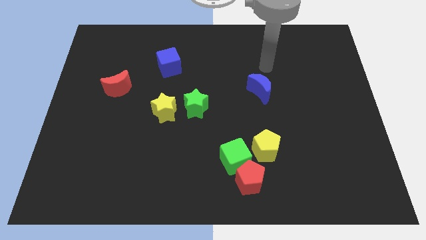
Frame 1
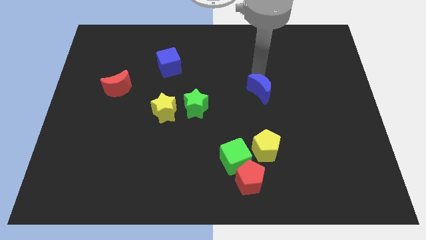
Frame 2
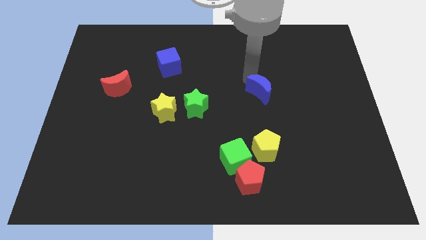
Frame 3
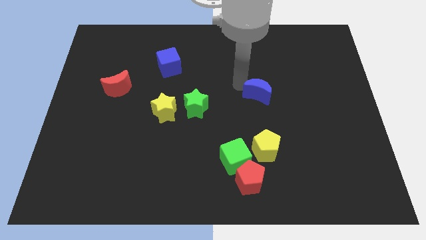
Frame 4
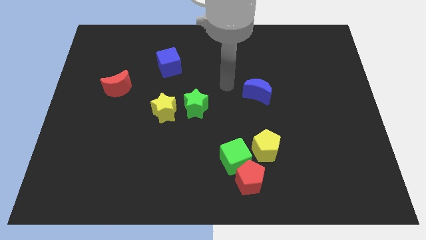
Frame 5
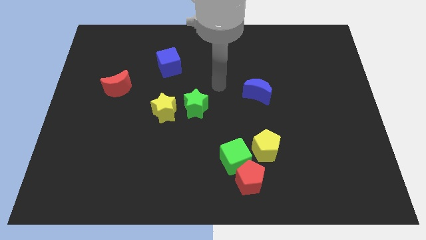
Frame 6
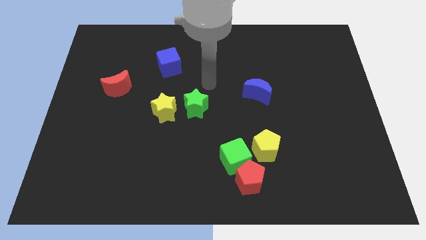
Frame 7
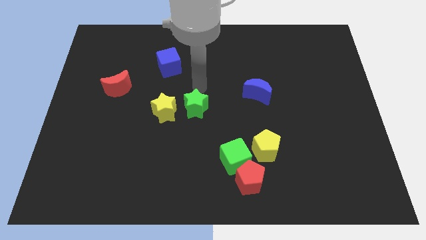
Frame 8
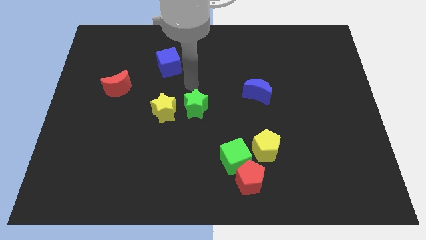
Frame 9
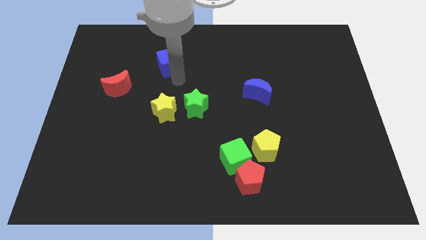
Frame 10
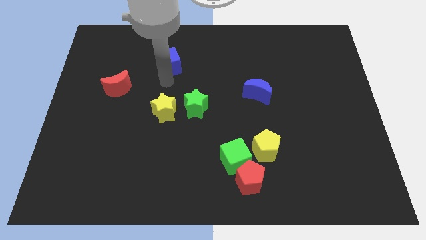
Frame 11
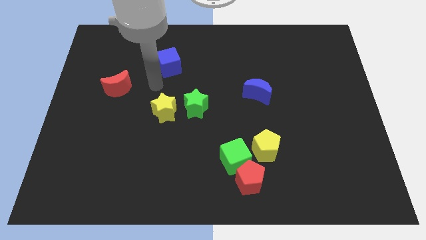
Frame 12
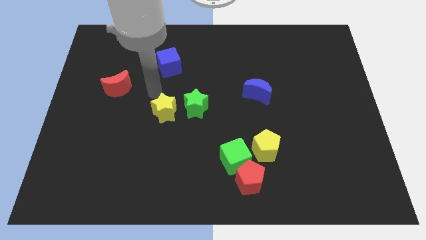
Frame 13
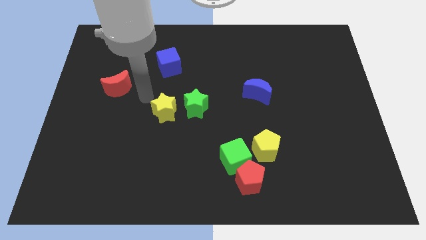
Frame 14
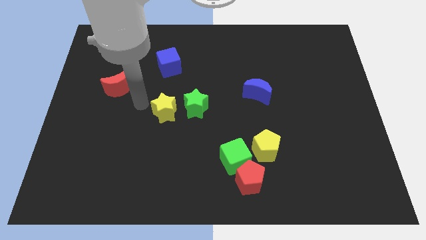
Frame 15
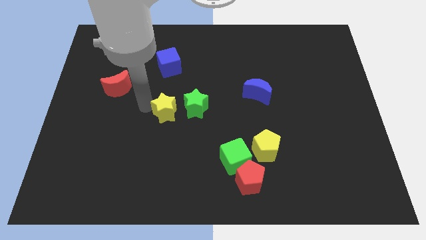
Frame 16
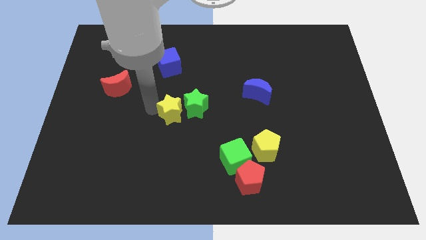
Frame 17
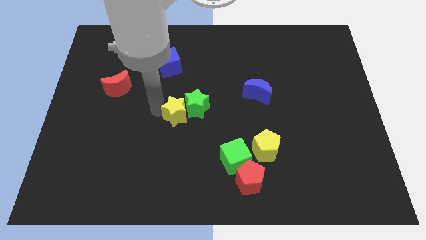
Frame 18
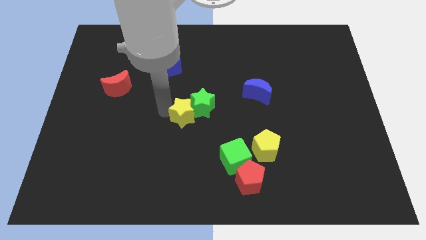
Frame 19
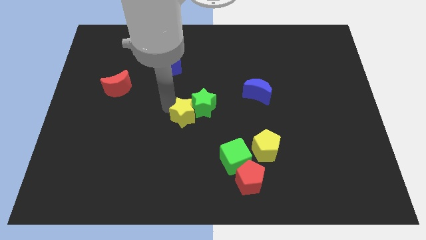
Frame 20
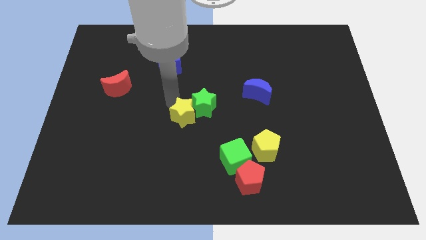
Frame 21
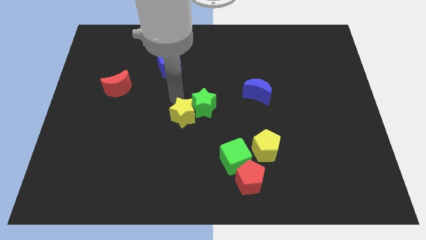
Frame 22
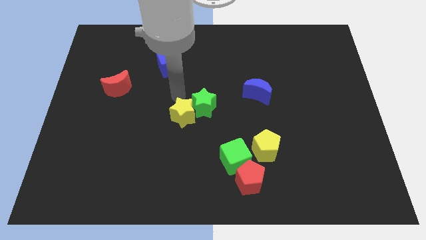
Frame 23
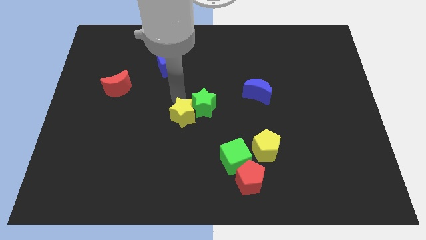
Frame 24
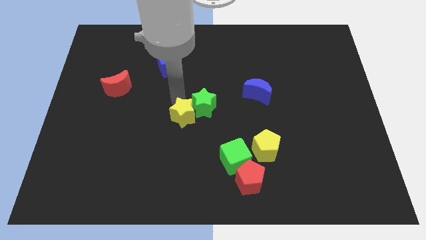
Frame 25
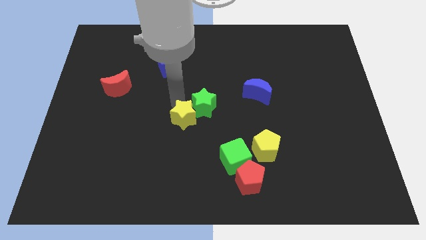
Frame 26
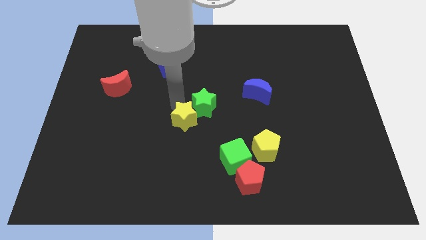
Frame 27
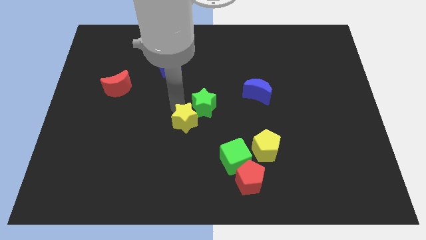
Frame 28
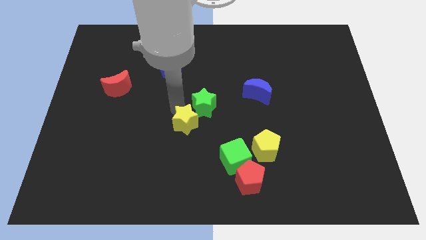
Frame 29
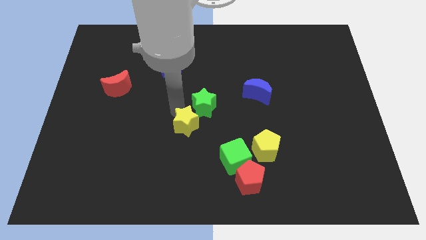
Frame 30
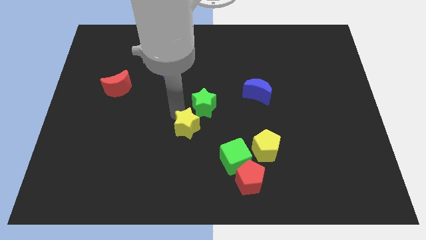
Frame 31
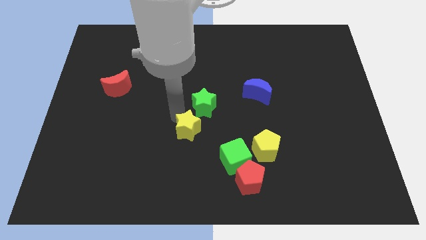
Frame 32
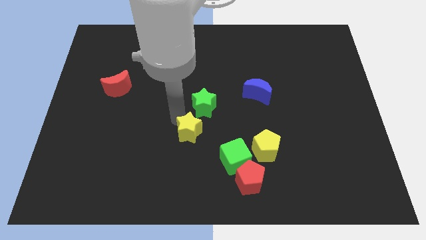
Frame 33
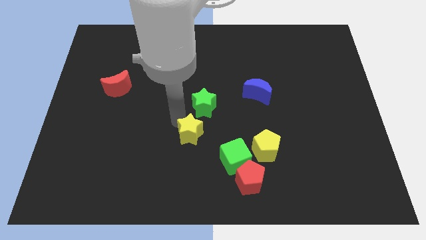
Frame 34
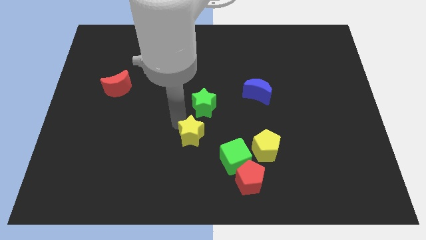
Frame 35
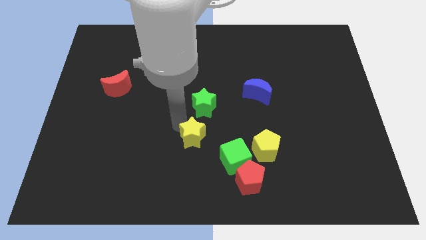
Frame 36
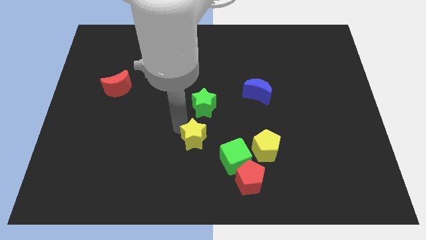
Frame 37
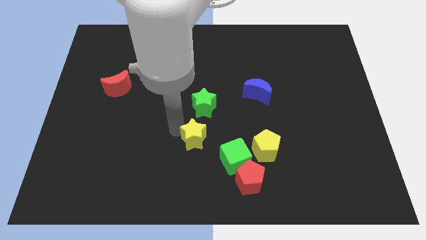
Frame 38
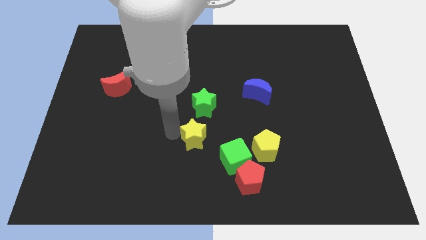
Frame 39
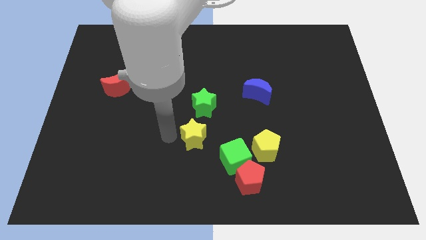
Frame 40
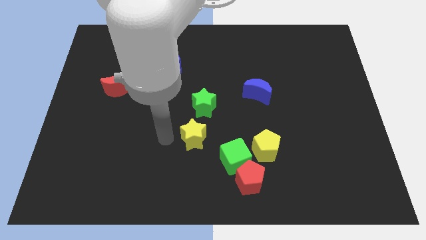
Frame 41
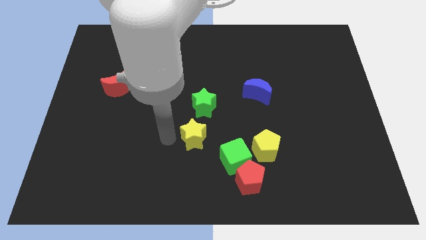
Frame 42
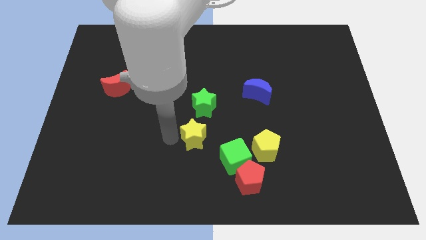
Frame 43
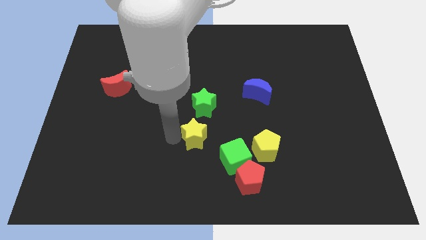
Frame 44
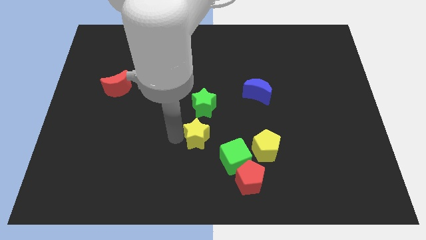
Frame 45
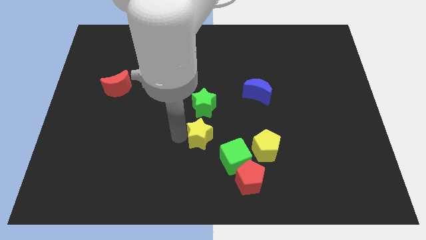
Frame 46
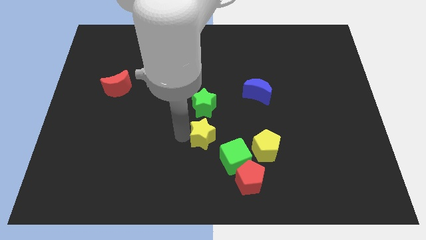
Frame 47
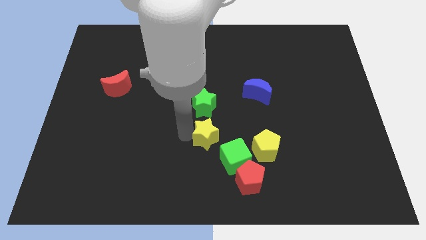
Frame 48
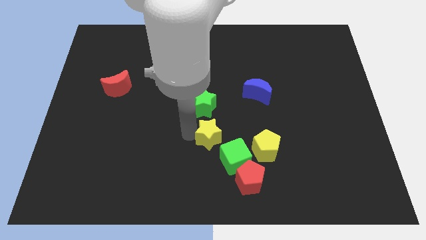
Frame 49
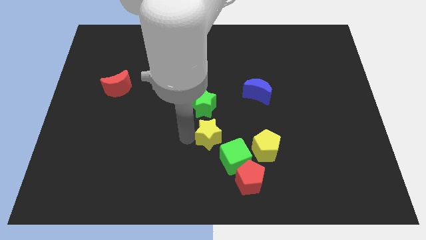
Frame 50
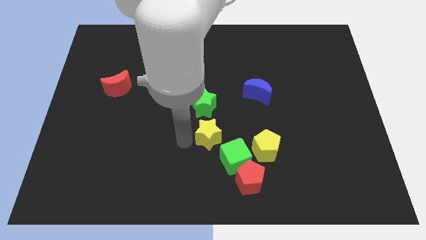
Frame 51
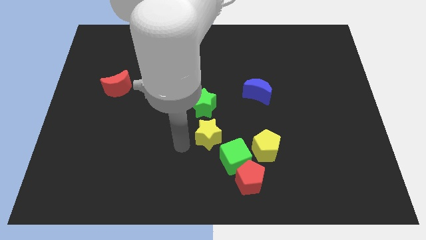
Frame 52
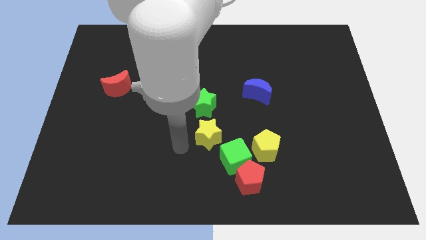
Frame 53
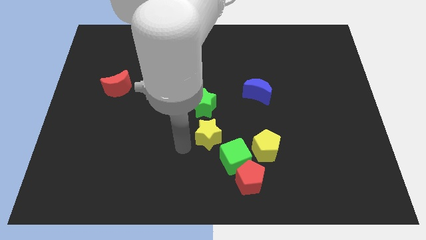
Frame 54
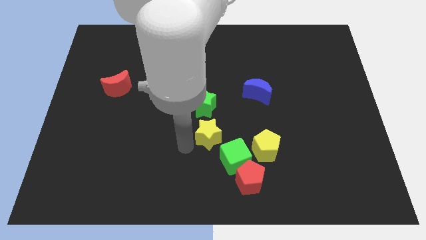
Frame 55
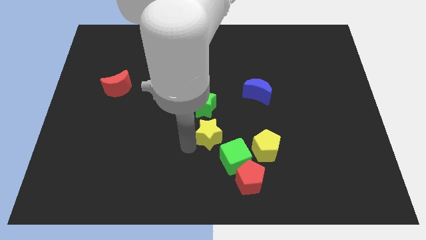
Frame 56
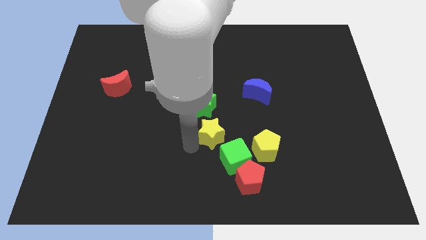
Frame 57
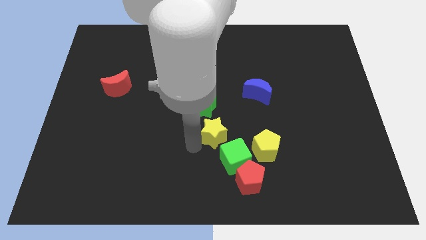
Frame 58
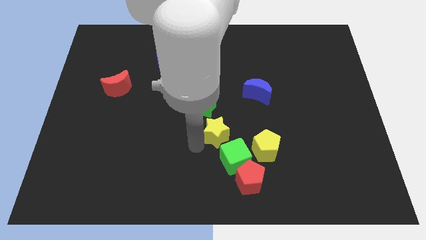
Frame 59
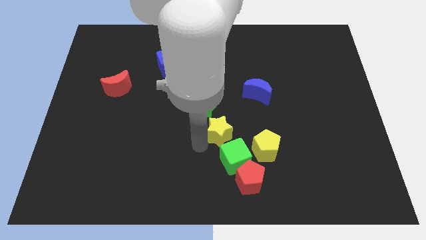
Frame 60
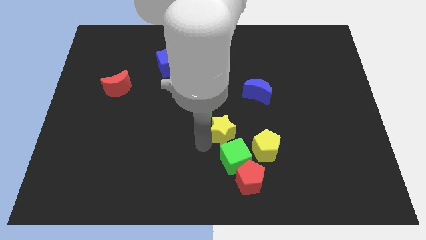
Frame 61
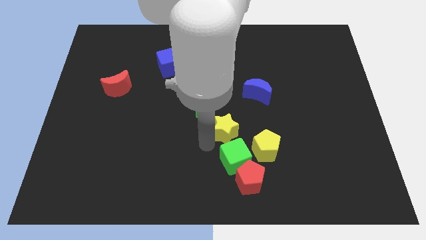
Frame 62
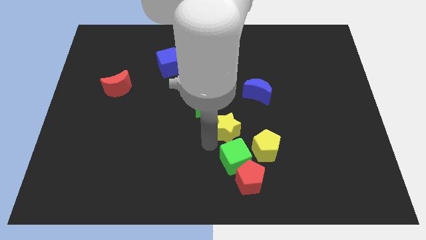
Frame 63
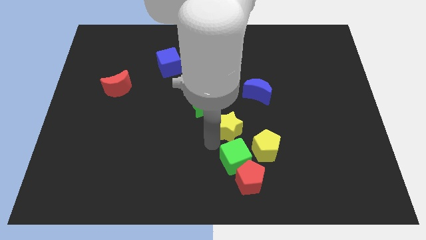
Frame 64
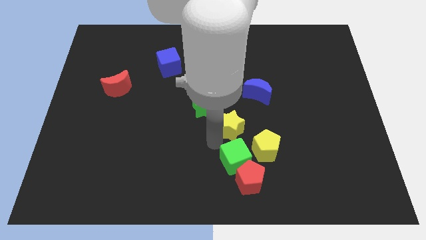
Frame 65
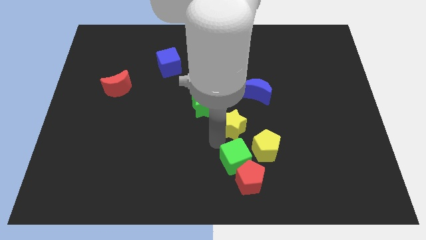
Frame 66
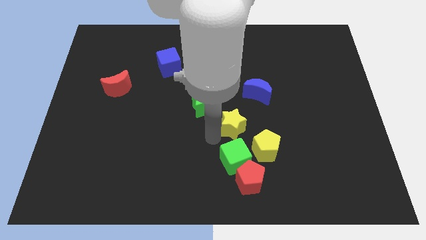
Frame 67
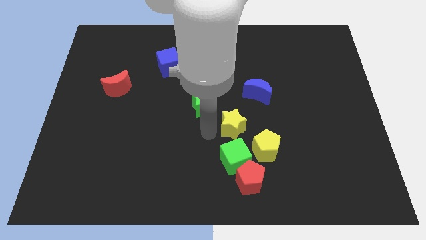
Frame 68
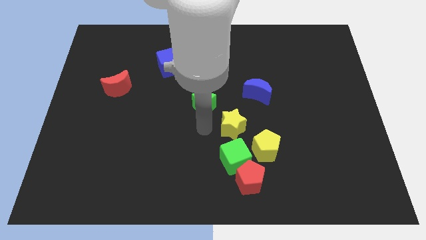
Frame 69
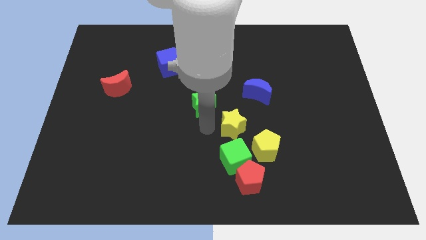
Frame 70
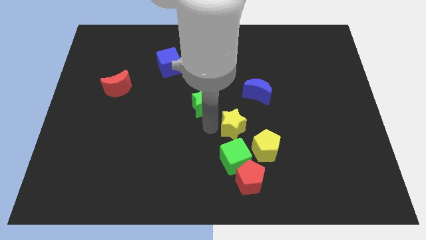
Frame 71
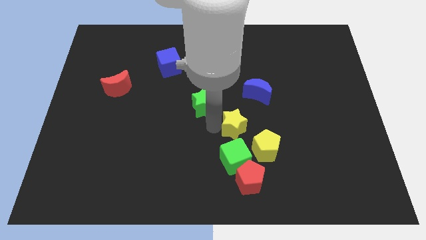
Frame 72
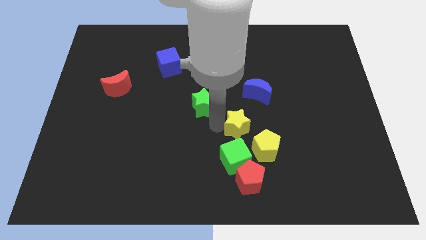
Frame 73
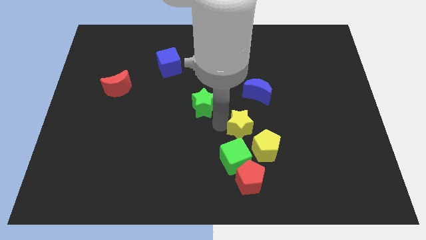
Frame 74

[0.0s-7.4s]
push the yellow star to the bottom side of the blue moon
